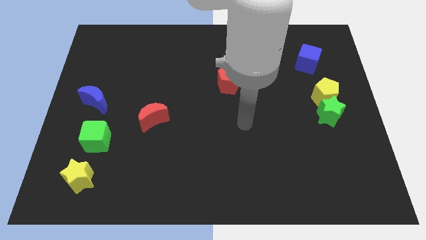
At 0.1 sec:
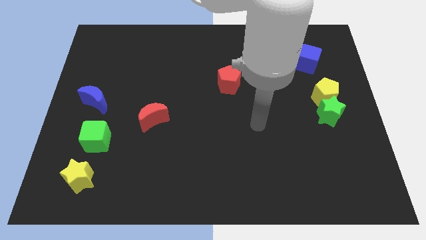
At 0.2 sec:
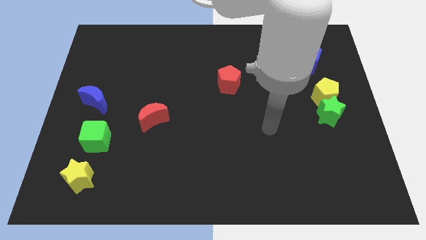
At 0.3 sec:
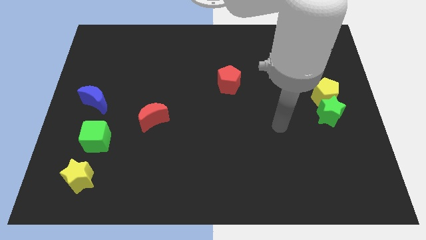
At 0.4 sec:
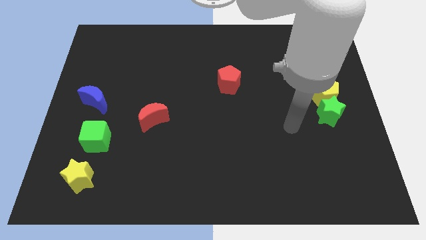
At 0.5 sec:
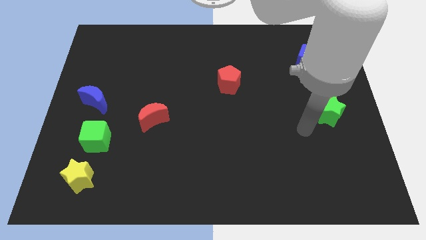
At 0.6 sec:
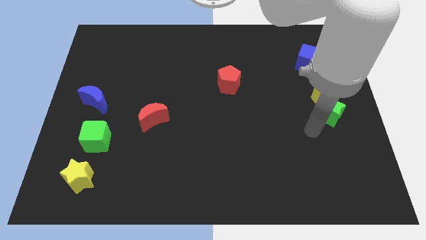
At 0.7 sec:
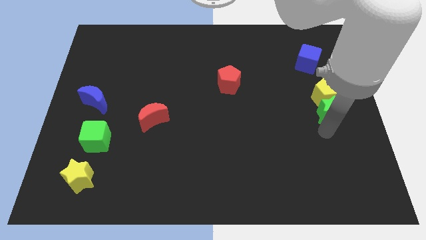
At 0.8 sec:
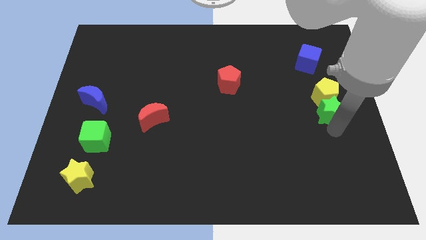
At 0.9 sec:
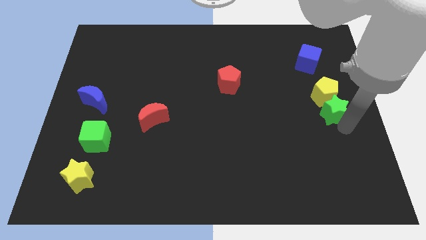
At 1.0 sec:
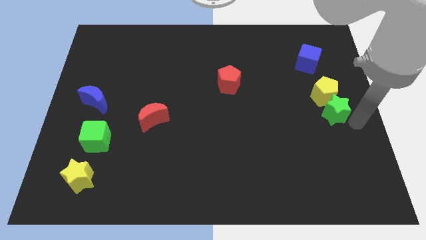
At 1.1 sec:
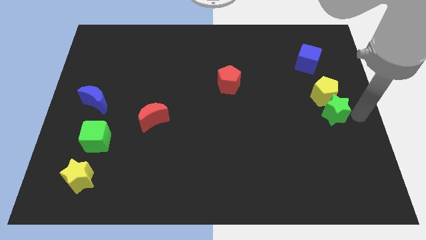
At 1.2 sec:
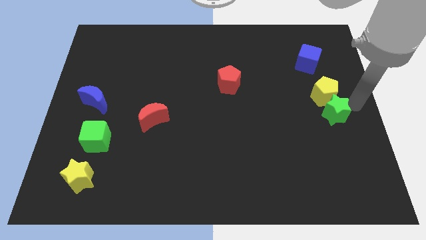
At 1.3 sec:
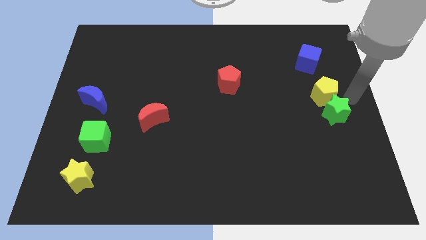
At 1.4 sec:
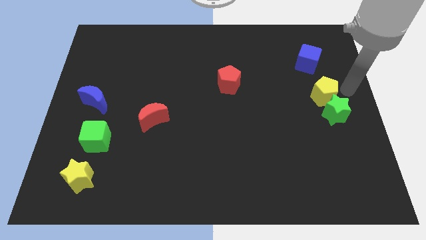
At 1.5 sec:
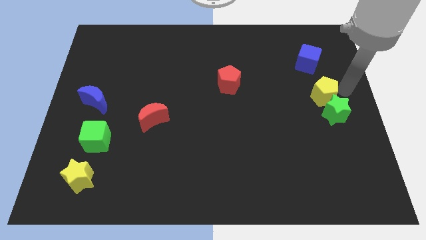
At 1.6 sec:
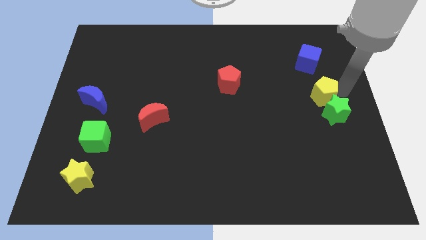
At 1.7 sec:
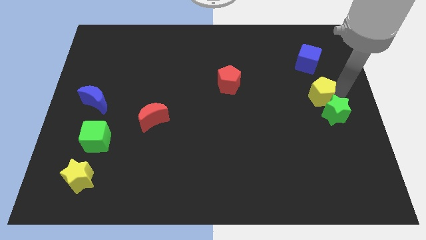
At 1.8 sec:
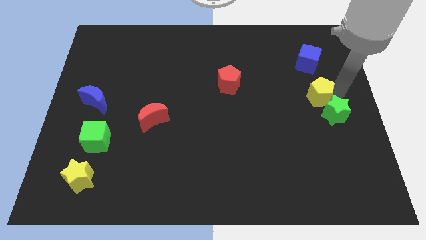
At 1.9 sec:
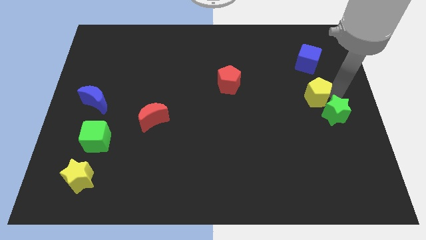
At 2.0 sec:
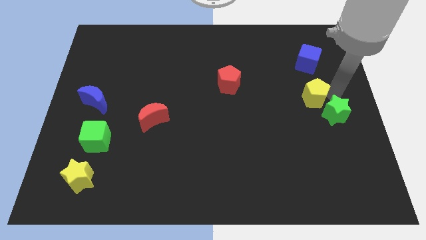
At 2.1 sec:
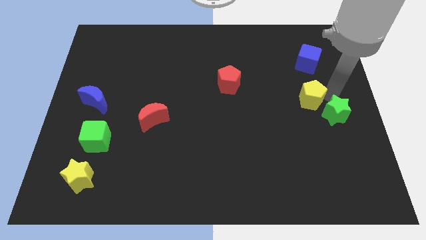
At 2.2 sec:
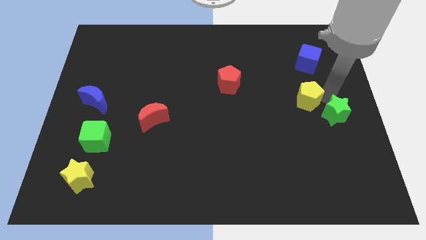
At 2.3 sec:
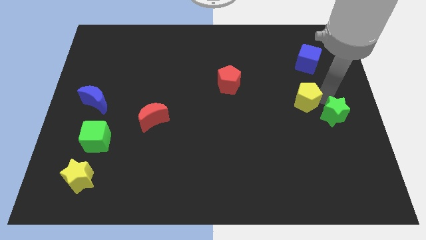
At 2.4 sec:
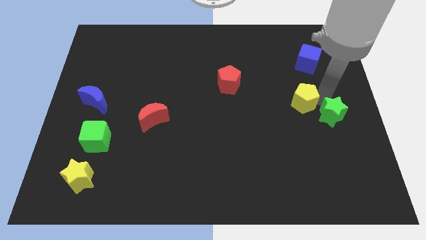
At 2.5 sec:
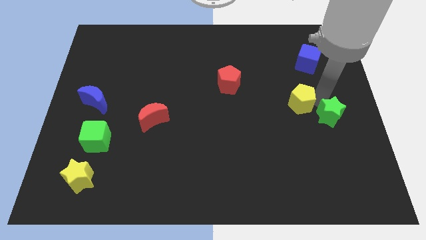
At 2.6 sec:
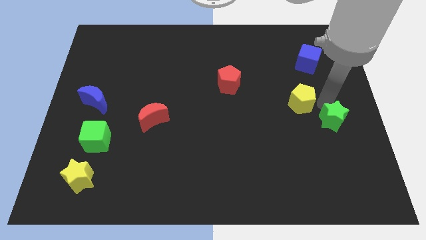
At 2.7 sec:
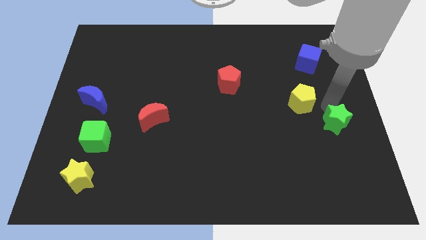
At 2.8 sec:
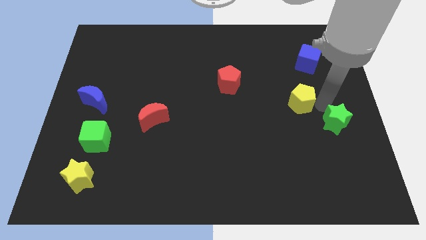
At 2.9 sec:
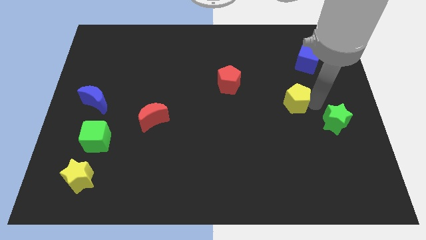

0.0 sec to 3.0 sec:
slide the yellow pentagon to the left a bit

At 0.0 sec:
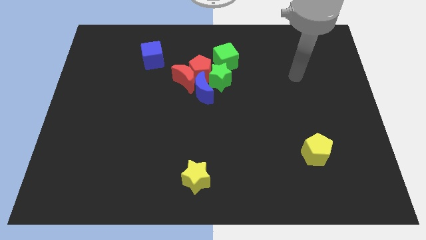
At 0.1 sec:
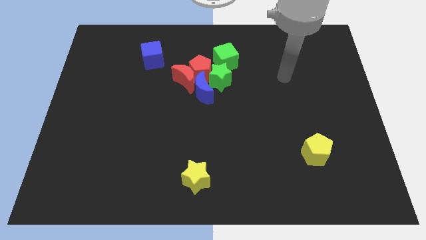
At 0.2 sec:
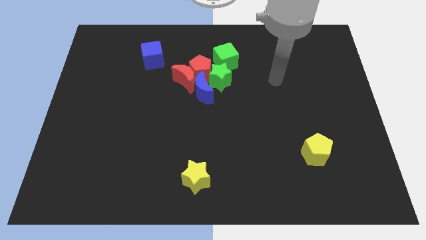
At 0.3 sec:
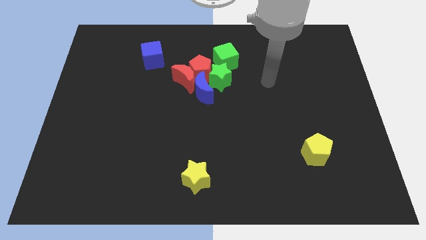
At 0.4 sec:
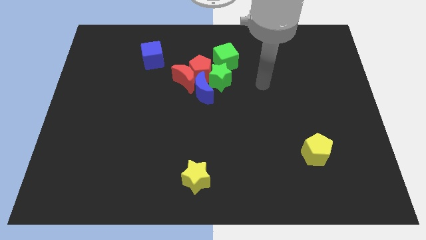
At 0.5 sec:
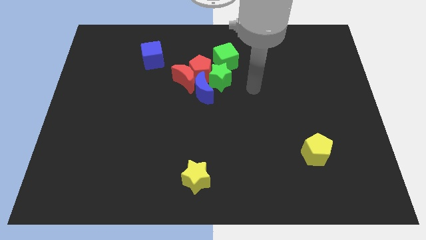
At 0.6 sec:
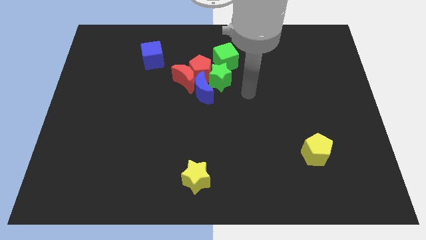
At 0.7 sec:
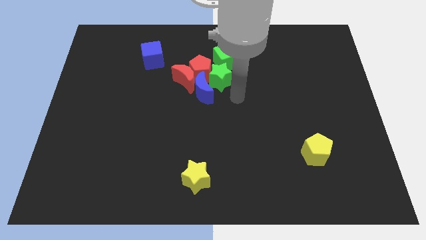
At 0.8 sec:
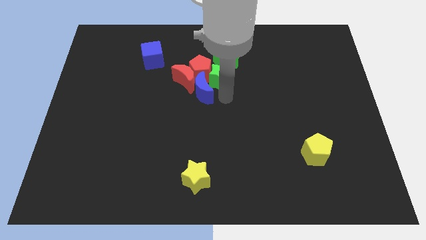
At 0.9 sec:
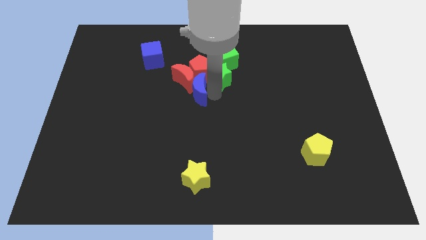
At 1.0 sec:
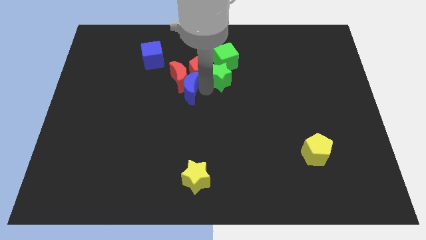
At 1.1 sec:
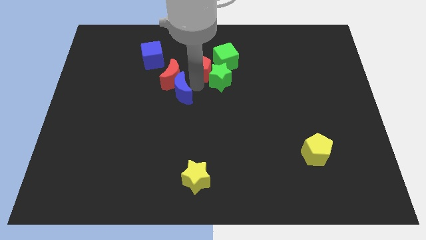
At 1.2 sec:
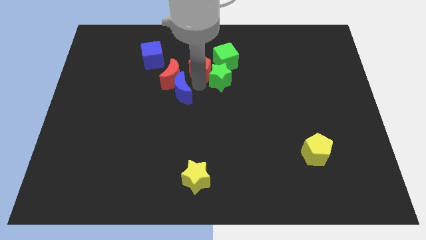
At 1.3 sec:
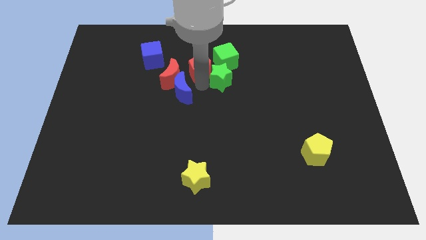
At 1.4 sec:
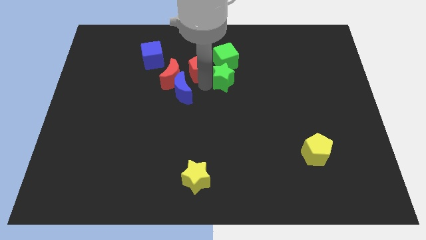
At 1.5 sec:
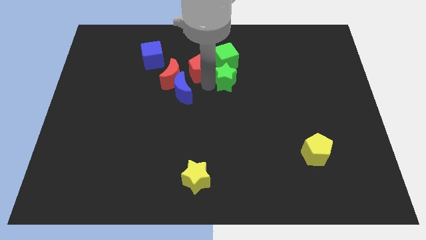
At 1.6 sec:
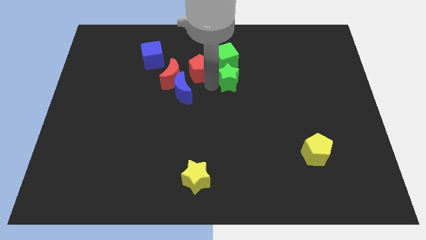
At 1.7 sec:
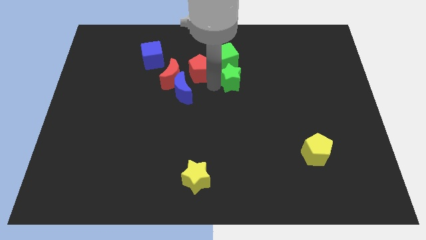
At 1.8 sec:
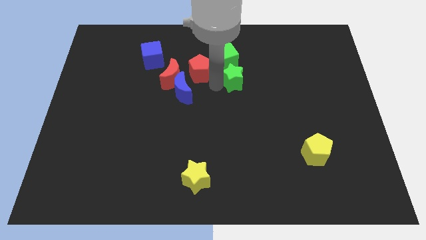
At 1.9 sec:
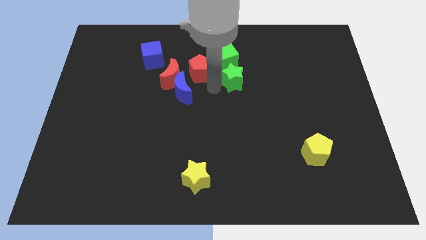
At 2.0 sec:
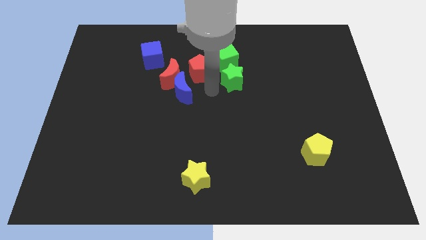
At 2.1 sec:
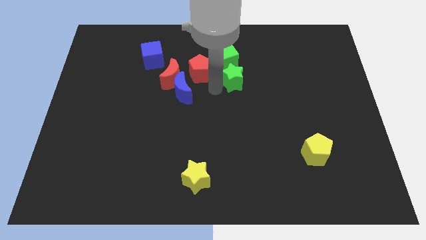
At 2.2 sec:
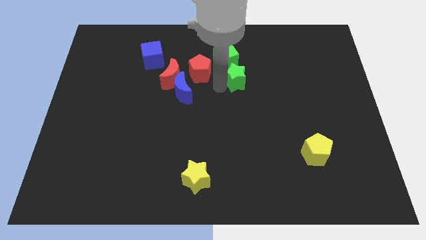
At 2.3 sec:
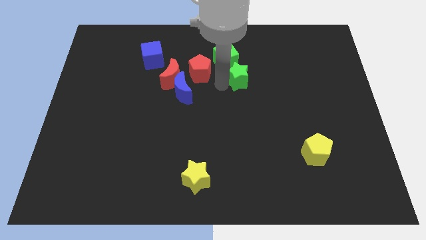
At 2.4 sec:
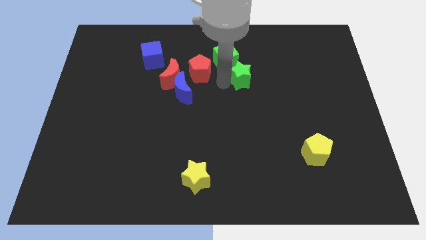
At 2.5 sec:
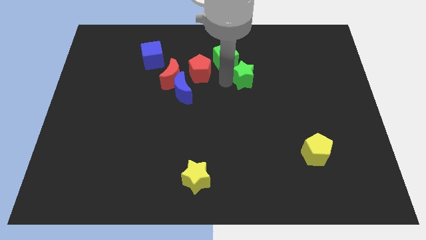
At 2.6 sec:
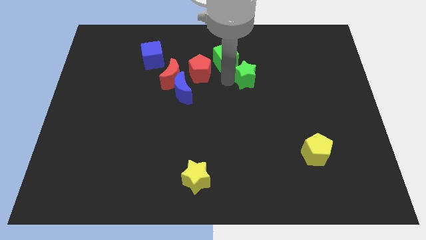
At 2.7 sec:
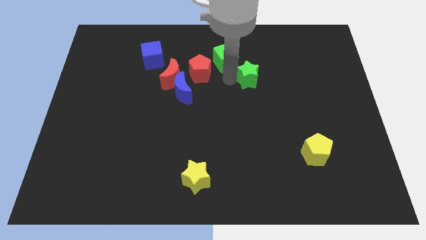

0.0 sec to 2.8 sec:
slightly push the green star to the right

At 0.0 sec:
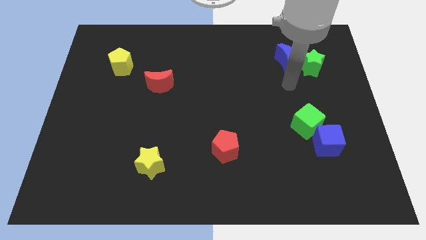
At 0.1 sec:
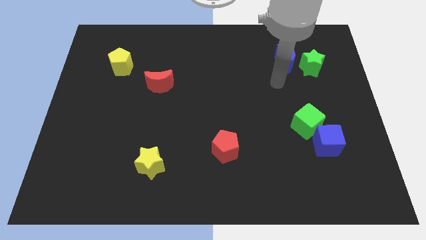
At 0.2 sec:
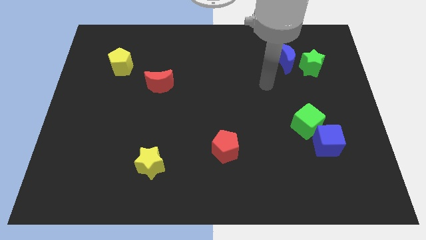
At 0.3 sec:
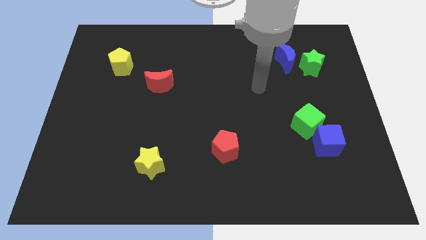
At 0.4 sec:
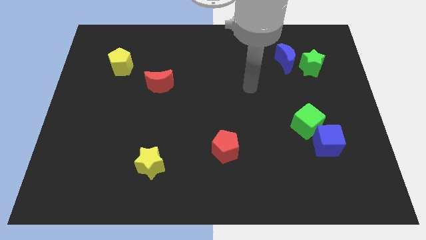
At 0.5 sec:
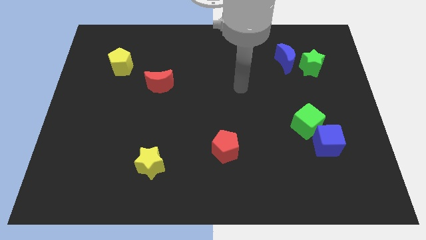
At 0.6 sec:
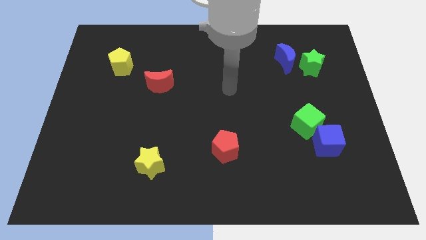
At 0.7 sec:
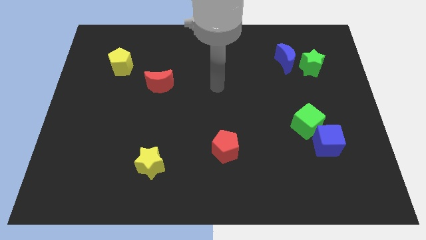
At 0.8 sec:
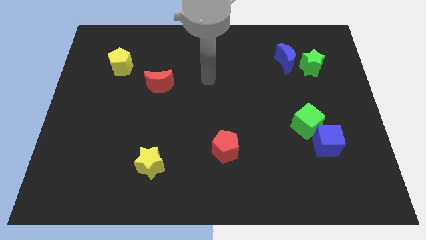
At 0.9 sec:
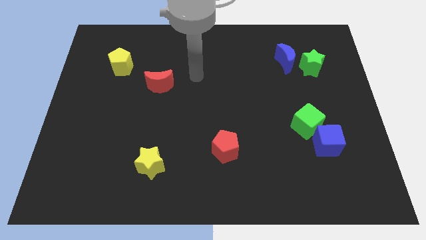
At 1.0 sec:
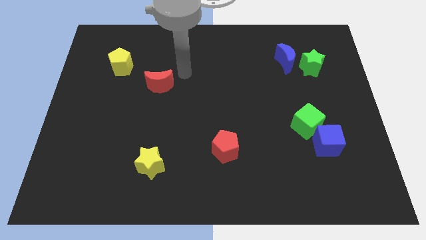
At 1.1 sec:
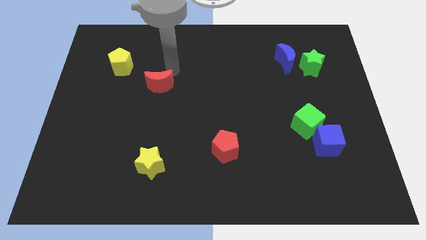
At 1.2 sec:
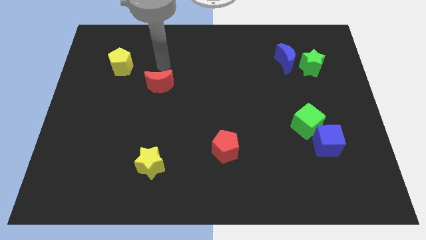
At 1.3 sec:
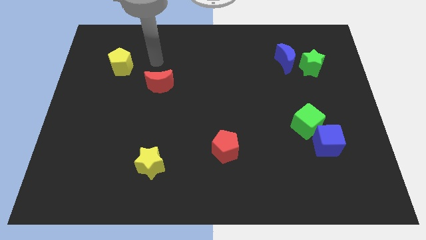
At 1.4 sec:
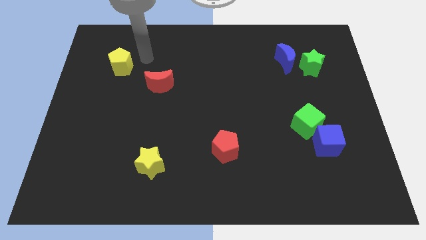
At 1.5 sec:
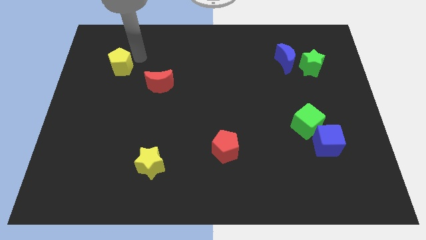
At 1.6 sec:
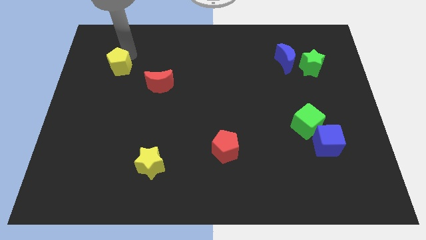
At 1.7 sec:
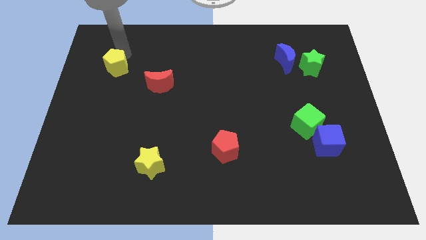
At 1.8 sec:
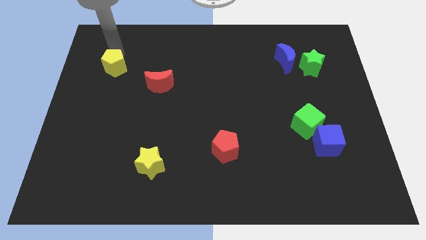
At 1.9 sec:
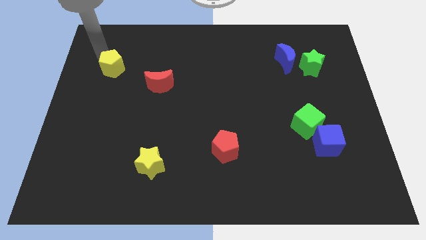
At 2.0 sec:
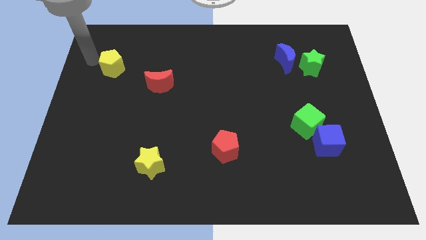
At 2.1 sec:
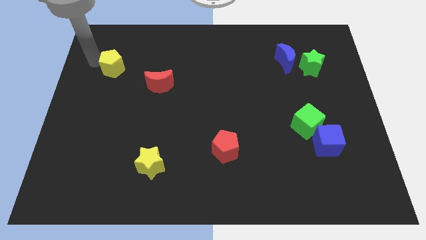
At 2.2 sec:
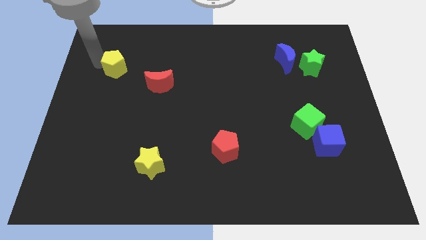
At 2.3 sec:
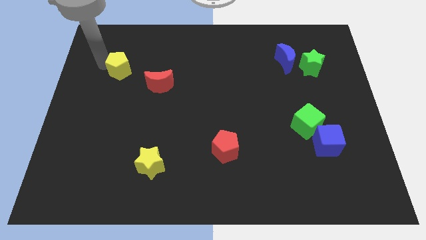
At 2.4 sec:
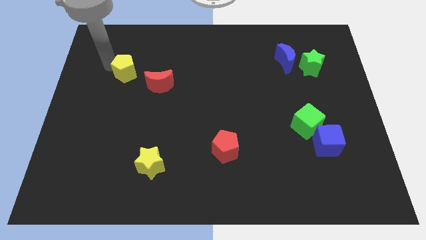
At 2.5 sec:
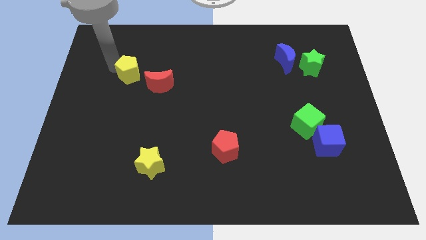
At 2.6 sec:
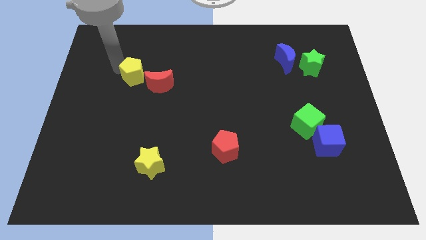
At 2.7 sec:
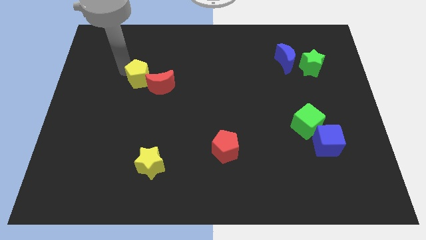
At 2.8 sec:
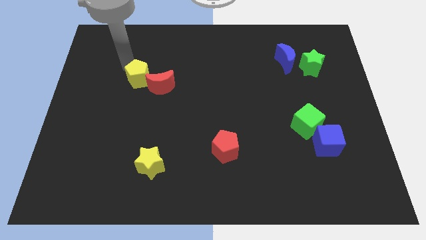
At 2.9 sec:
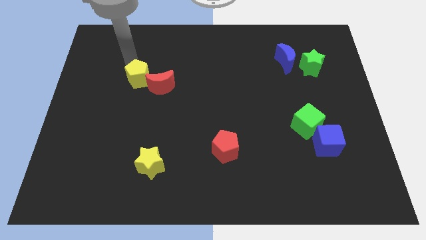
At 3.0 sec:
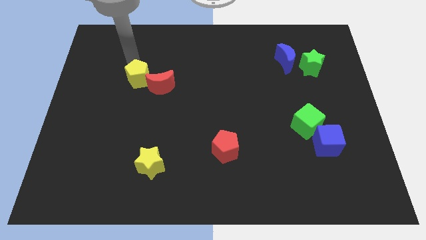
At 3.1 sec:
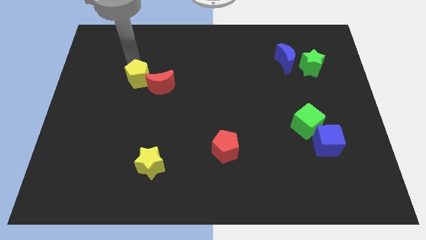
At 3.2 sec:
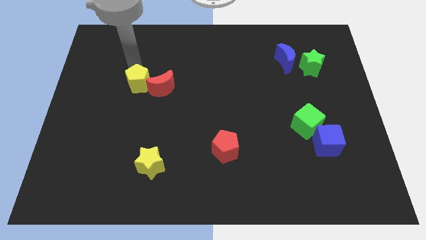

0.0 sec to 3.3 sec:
push the yellow pentagon a bit diagonally downwards and to the right
